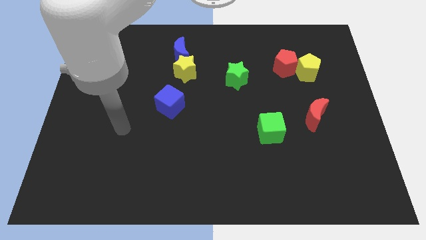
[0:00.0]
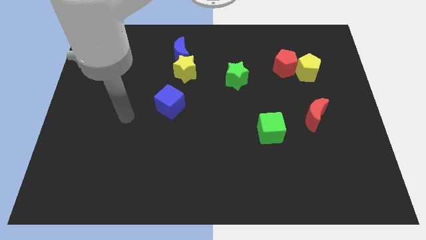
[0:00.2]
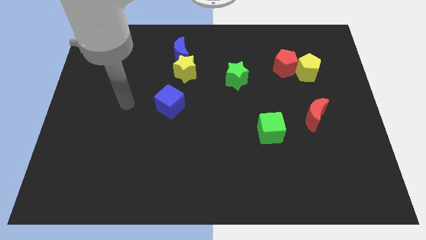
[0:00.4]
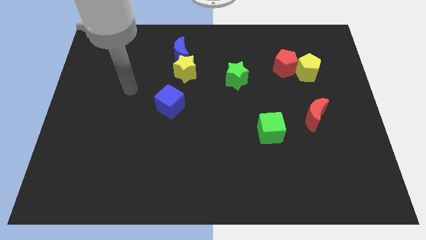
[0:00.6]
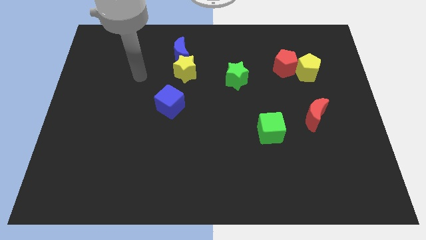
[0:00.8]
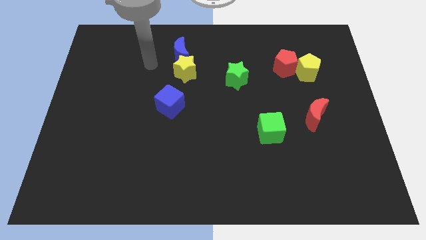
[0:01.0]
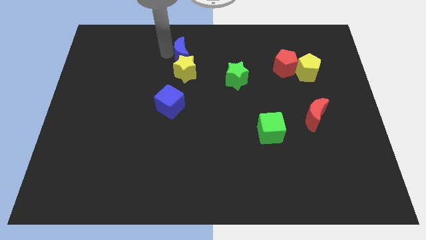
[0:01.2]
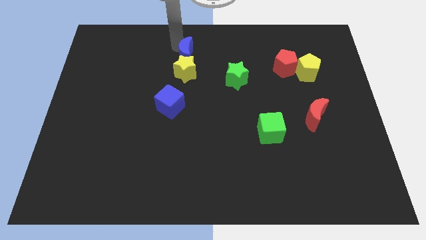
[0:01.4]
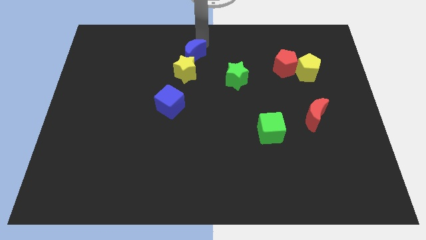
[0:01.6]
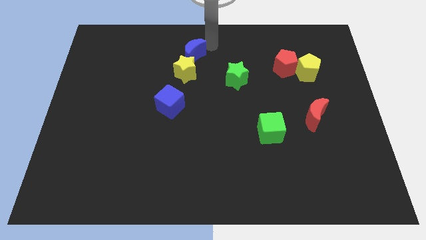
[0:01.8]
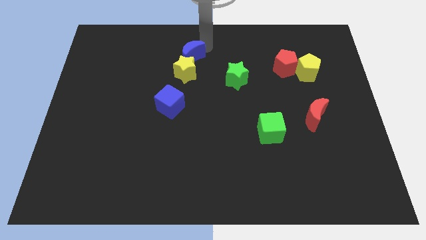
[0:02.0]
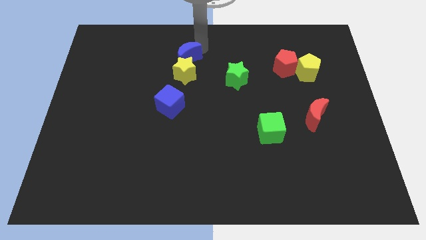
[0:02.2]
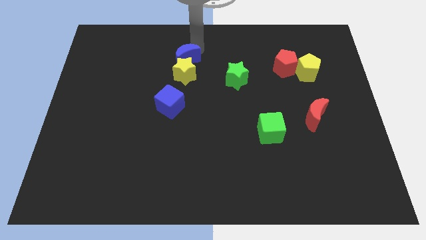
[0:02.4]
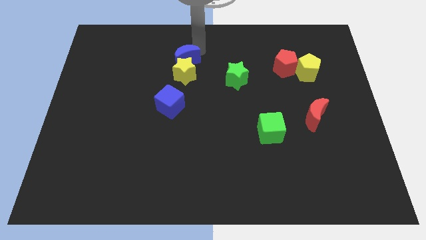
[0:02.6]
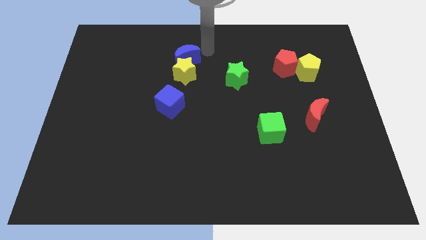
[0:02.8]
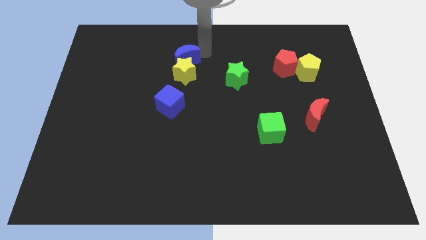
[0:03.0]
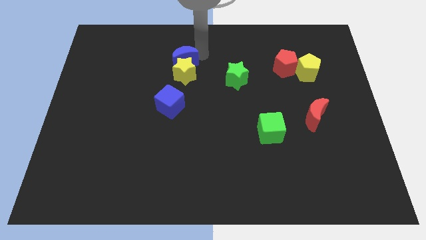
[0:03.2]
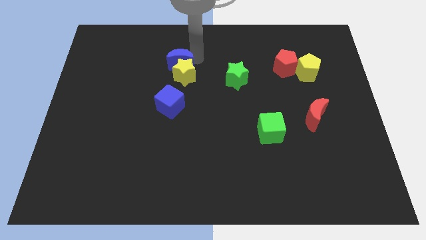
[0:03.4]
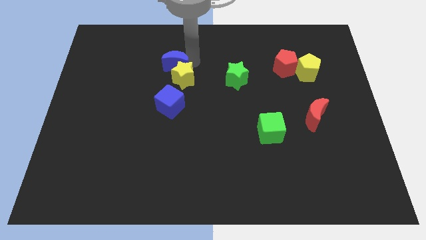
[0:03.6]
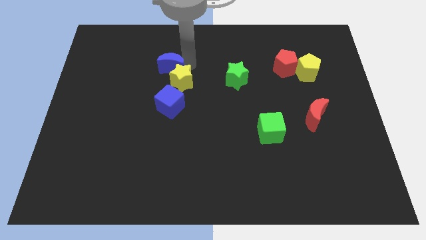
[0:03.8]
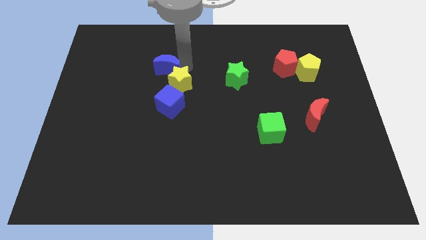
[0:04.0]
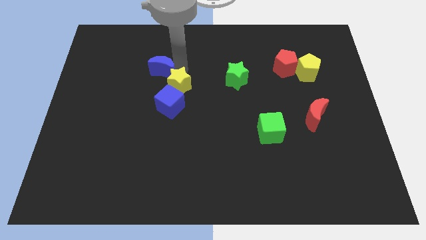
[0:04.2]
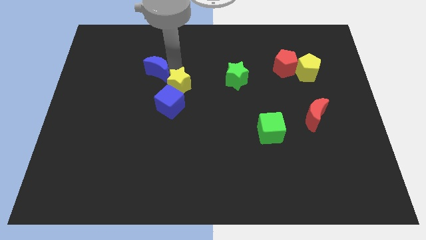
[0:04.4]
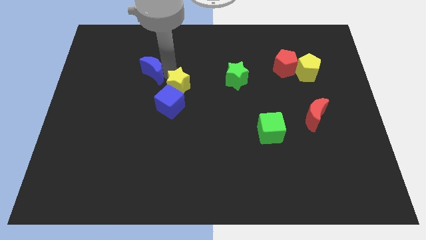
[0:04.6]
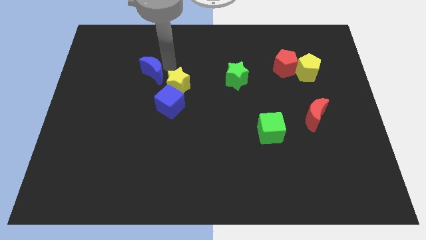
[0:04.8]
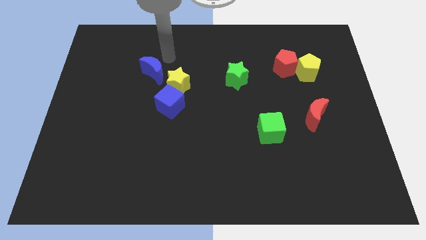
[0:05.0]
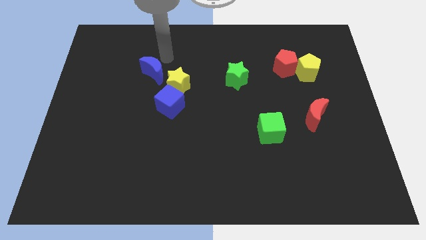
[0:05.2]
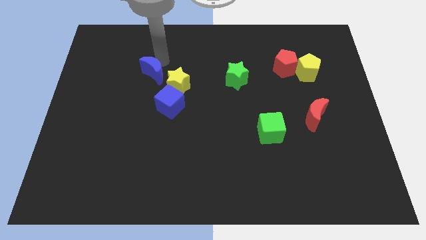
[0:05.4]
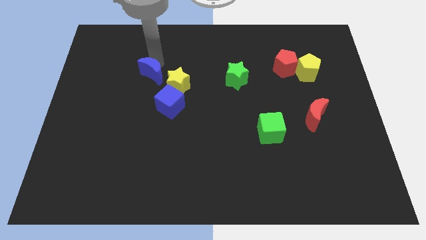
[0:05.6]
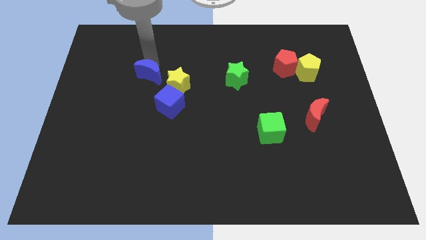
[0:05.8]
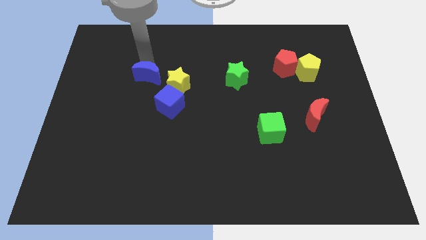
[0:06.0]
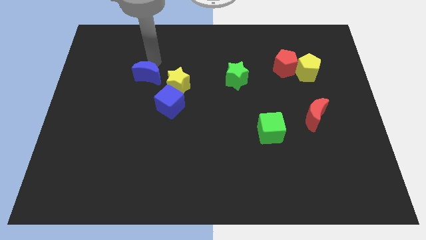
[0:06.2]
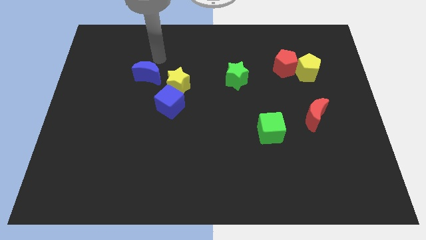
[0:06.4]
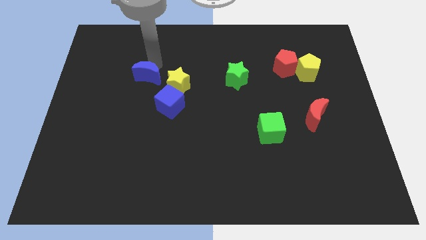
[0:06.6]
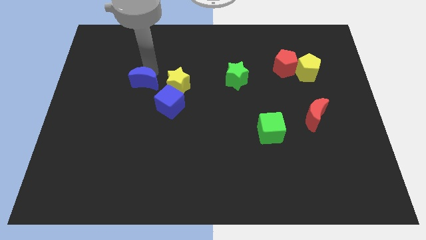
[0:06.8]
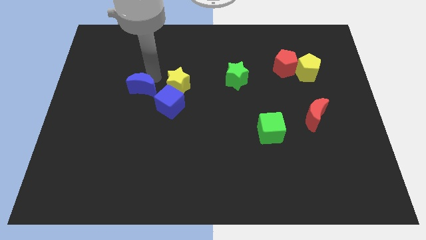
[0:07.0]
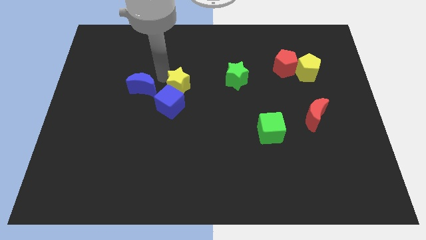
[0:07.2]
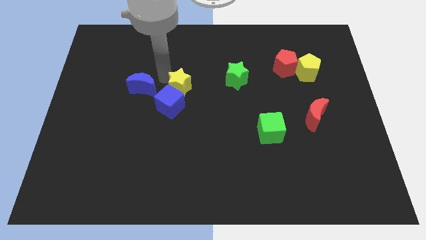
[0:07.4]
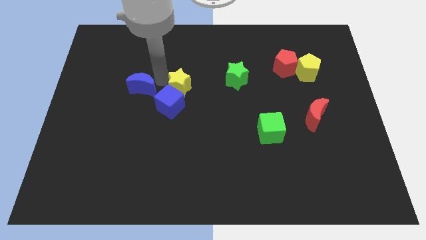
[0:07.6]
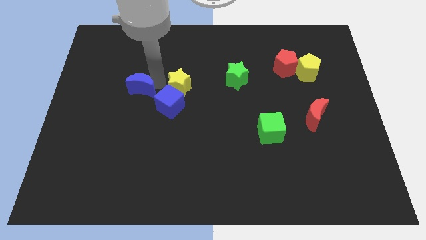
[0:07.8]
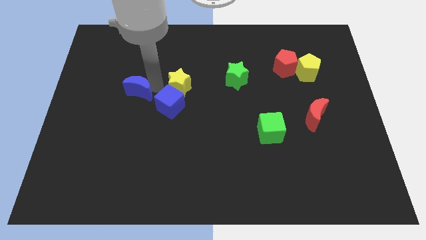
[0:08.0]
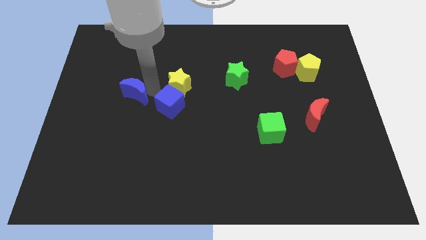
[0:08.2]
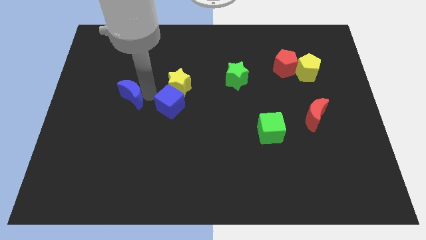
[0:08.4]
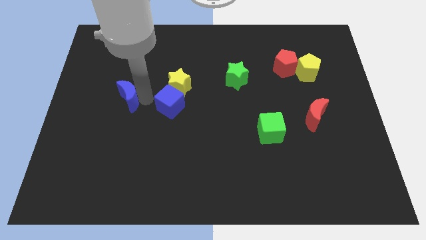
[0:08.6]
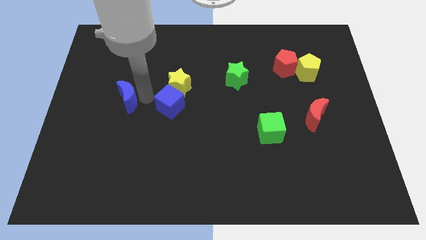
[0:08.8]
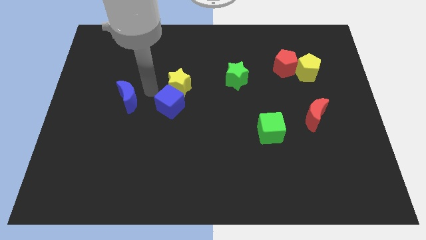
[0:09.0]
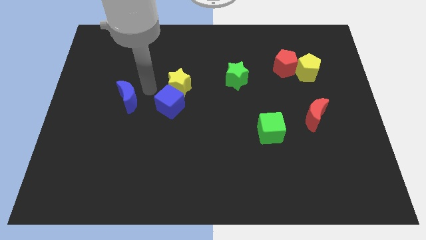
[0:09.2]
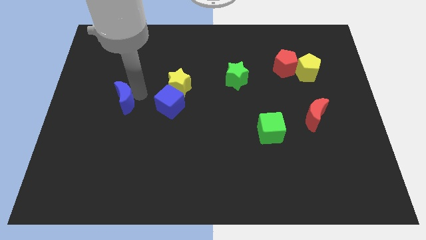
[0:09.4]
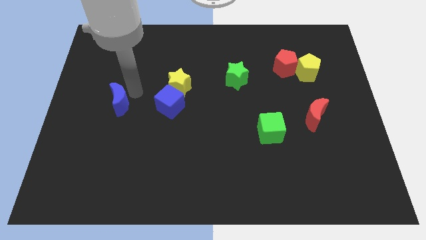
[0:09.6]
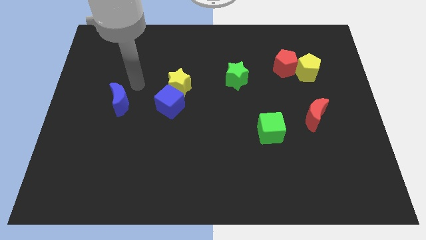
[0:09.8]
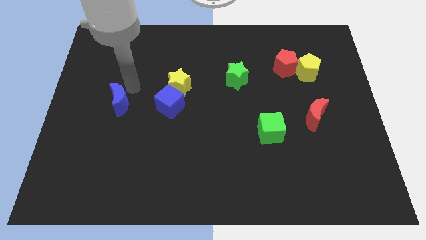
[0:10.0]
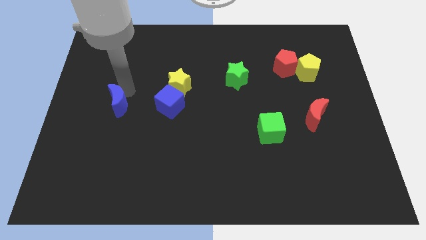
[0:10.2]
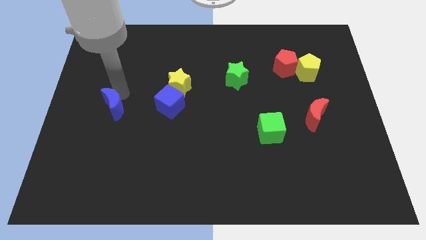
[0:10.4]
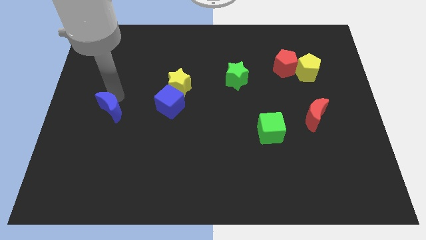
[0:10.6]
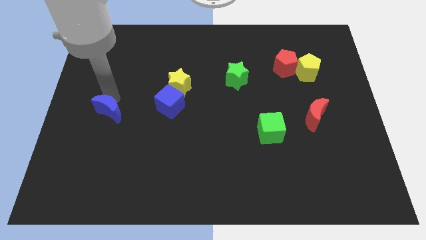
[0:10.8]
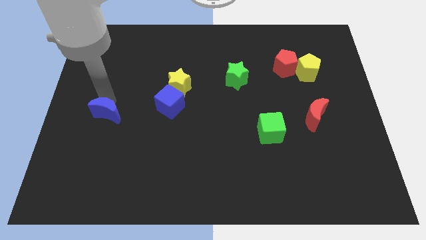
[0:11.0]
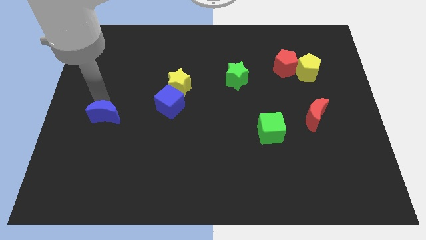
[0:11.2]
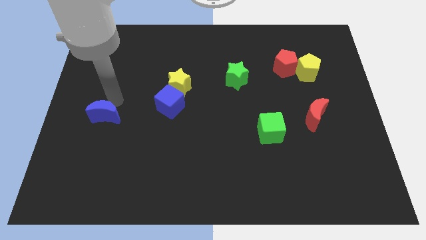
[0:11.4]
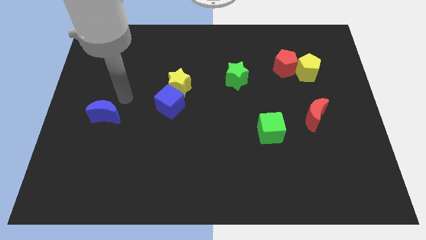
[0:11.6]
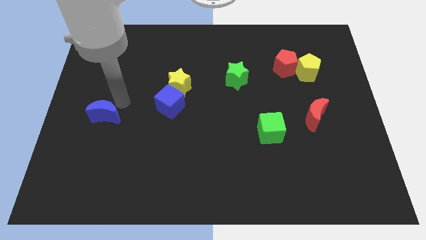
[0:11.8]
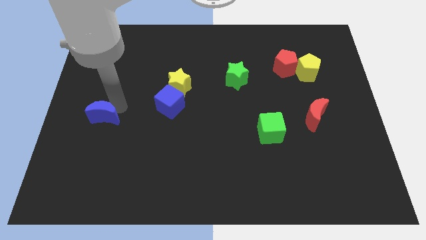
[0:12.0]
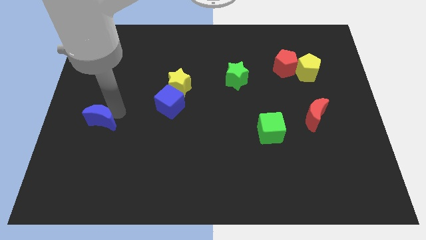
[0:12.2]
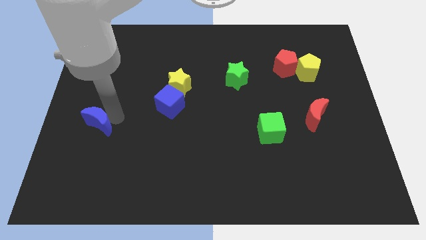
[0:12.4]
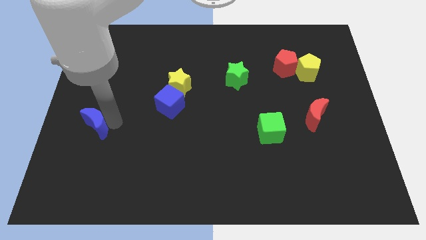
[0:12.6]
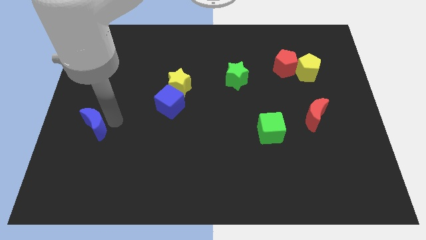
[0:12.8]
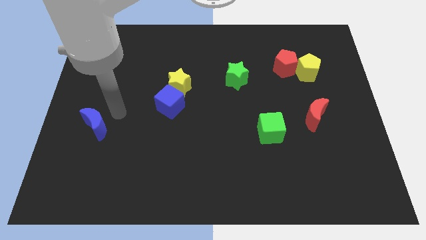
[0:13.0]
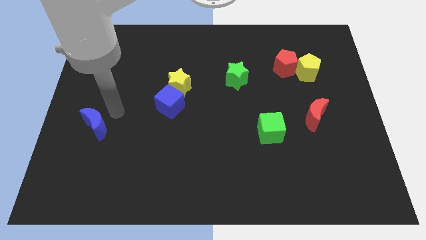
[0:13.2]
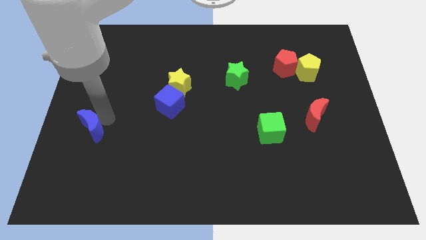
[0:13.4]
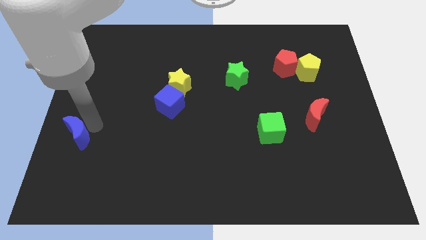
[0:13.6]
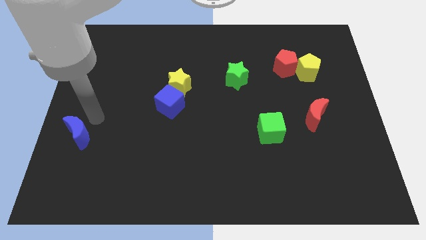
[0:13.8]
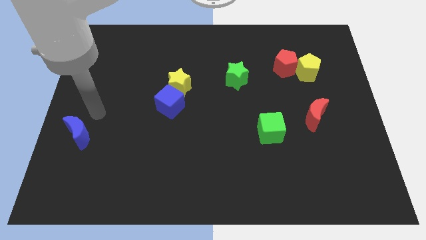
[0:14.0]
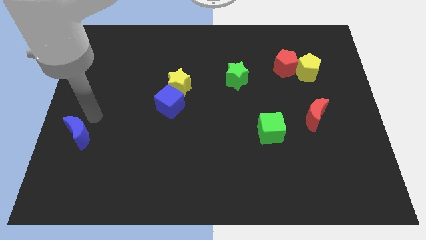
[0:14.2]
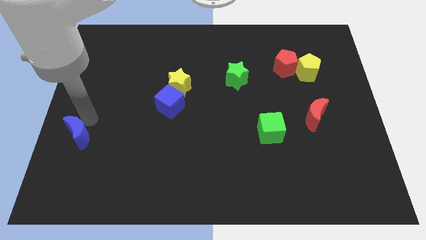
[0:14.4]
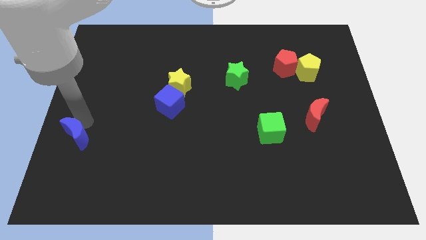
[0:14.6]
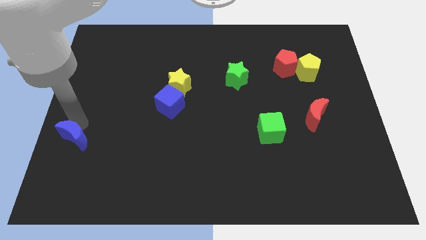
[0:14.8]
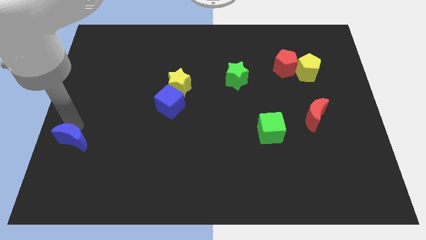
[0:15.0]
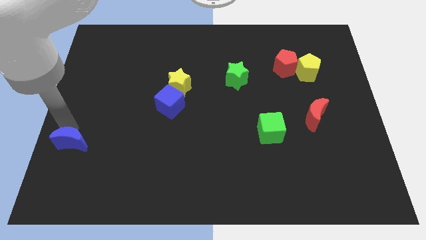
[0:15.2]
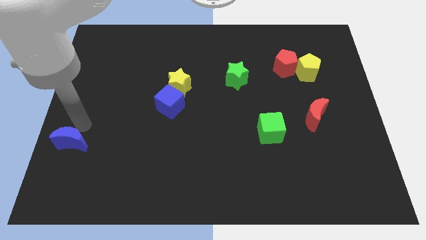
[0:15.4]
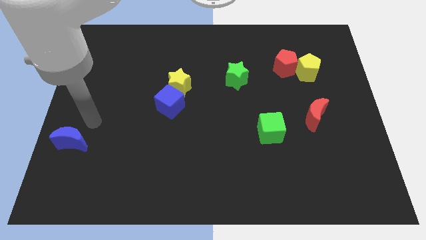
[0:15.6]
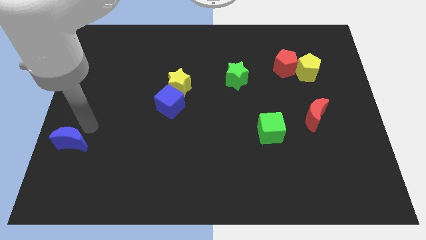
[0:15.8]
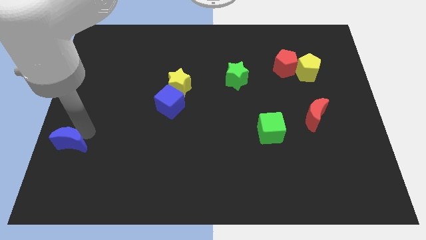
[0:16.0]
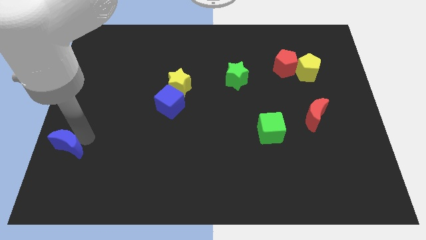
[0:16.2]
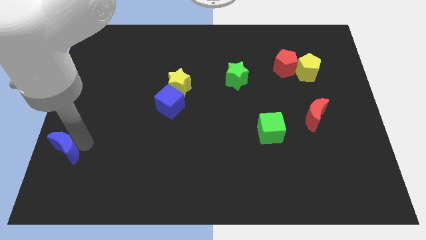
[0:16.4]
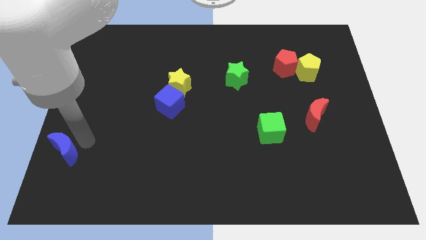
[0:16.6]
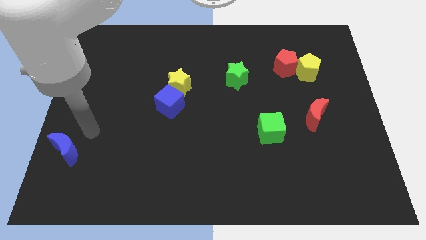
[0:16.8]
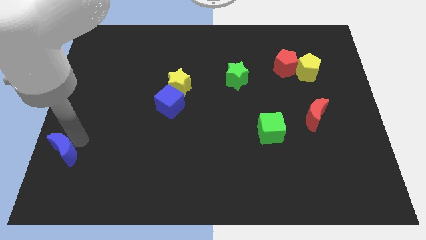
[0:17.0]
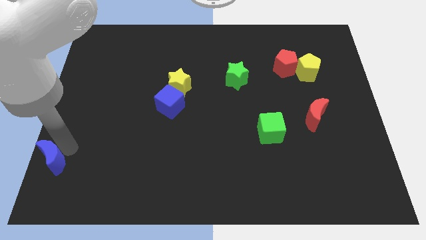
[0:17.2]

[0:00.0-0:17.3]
slide the blue moon to the lower left corner
